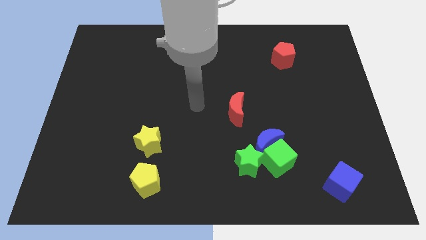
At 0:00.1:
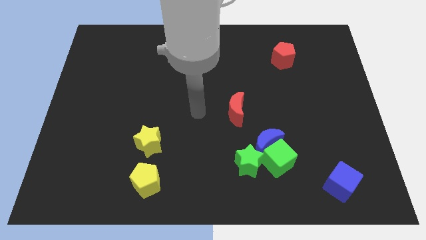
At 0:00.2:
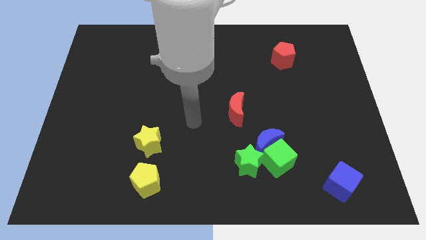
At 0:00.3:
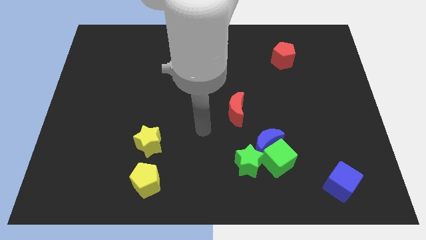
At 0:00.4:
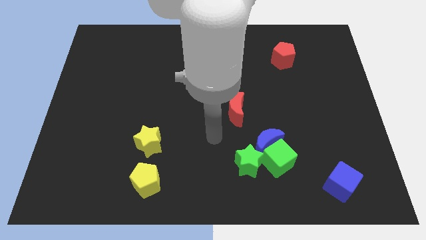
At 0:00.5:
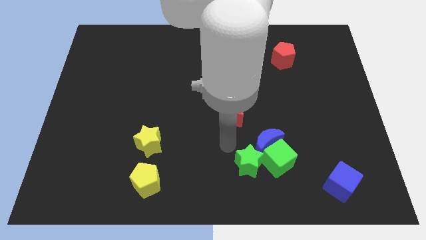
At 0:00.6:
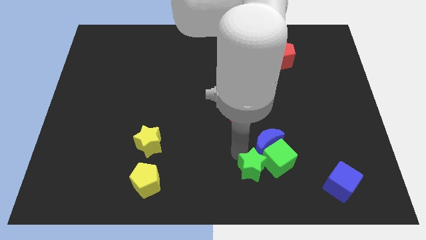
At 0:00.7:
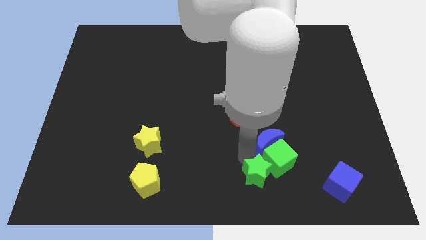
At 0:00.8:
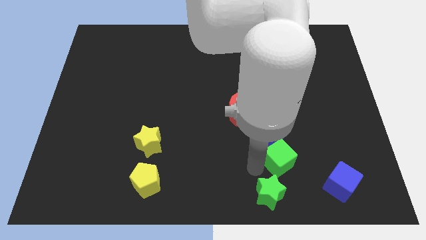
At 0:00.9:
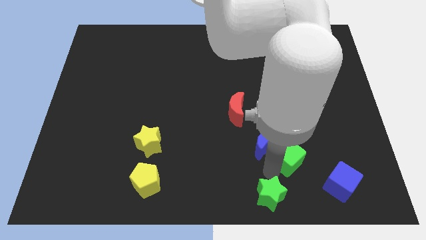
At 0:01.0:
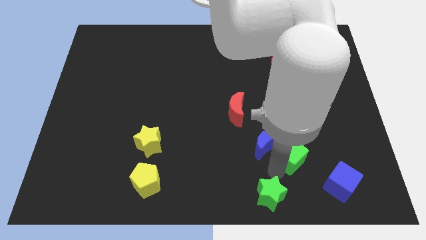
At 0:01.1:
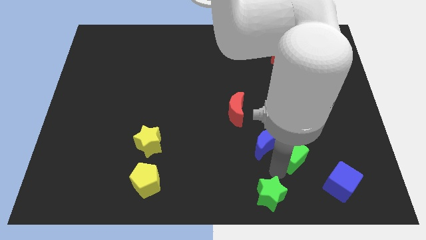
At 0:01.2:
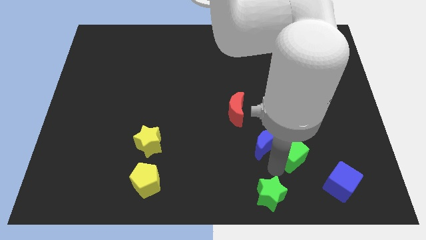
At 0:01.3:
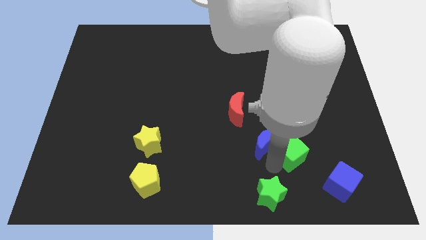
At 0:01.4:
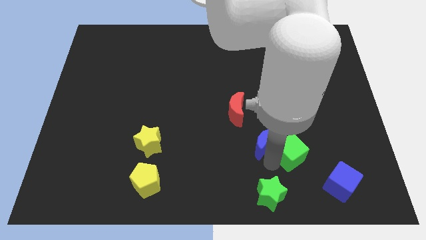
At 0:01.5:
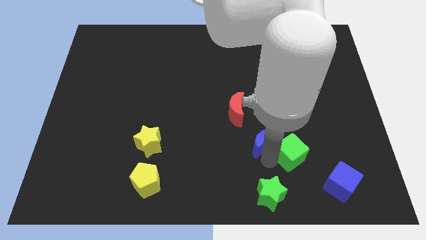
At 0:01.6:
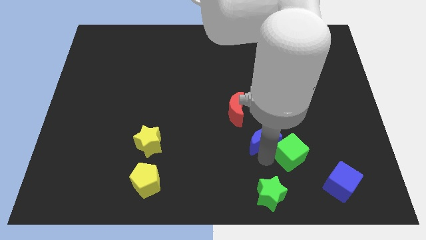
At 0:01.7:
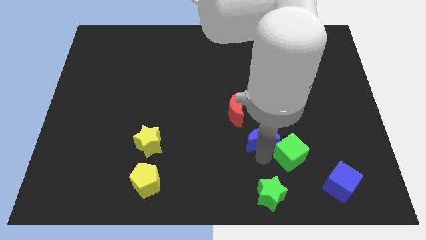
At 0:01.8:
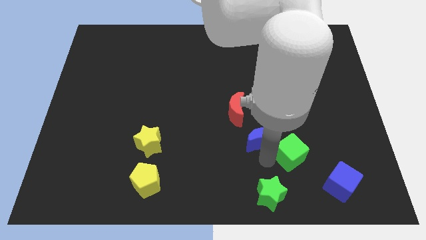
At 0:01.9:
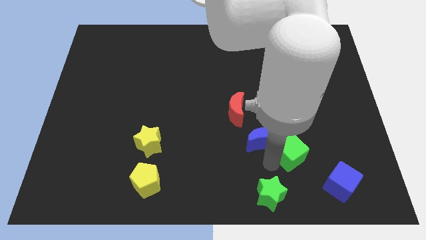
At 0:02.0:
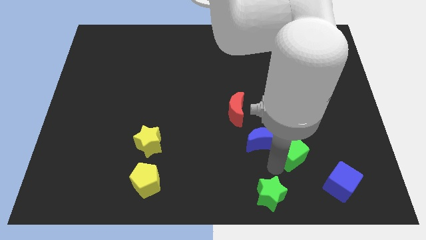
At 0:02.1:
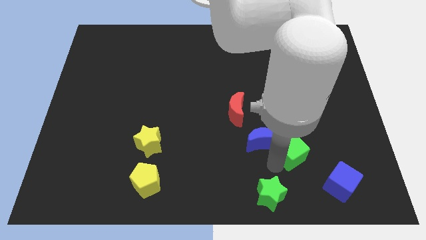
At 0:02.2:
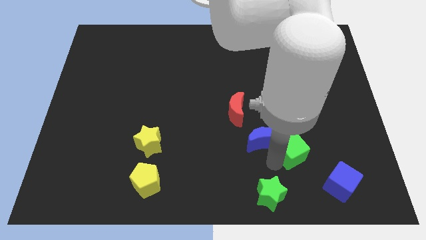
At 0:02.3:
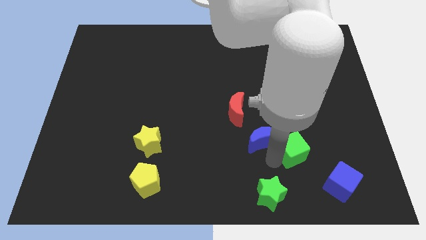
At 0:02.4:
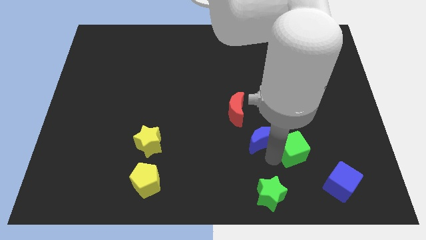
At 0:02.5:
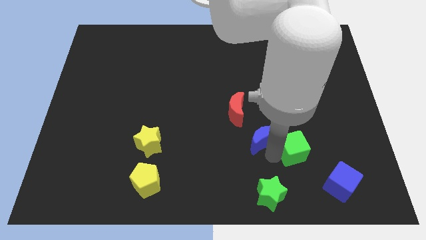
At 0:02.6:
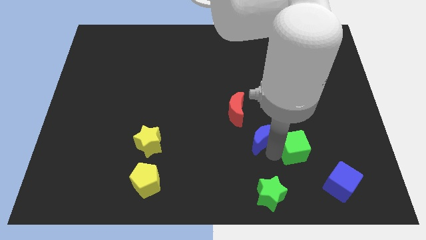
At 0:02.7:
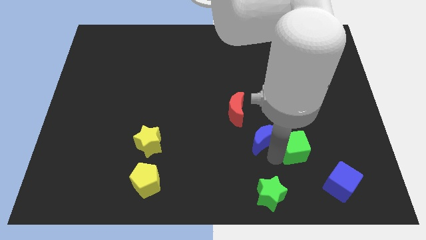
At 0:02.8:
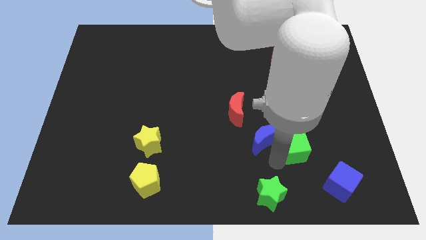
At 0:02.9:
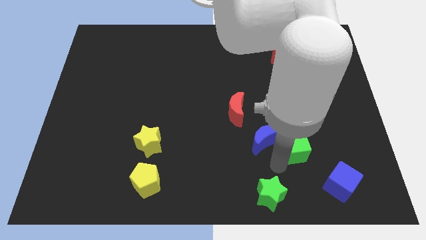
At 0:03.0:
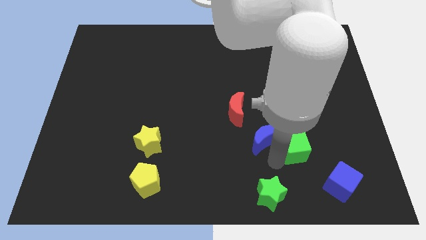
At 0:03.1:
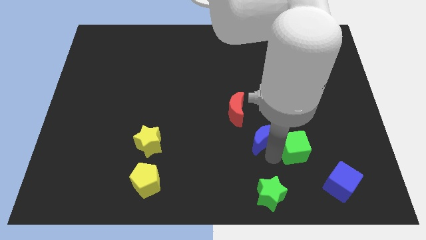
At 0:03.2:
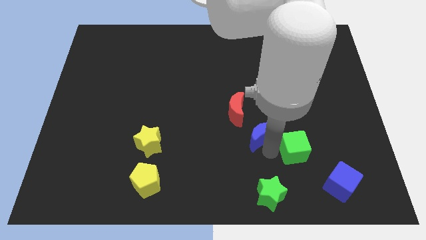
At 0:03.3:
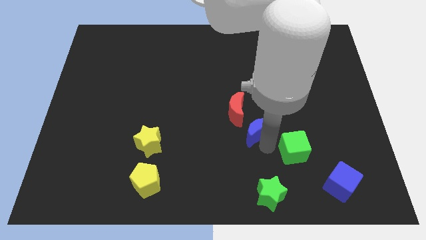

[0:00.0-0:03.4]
separate the blue moon from the green cube and green star

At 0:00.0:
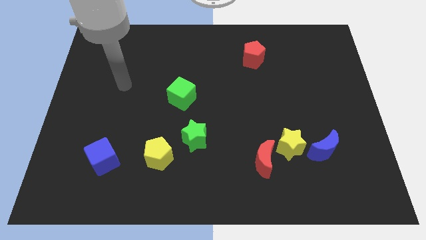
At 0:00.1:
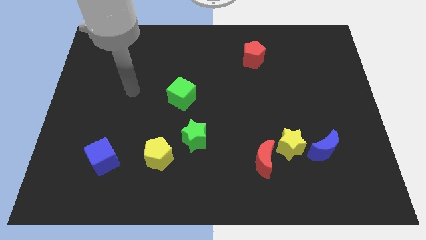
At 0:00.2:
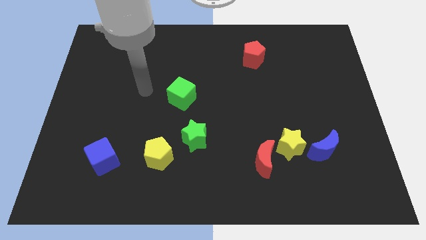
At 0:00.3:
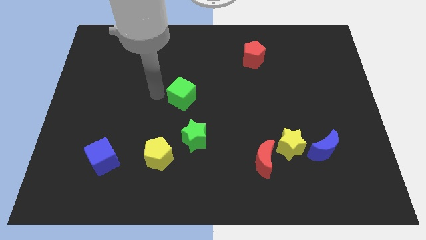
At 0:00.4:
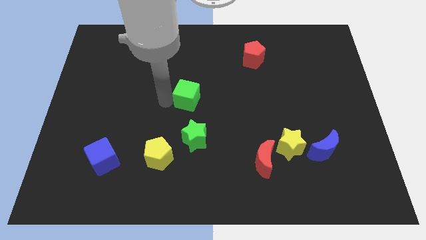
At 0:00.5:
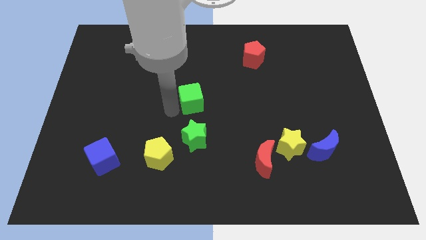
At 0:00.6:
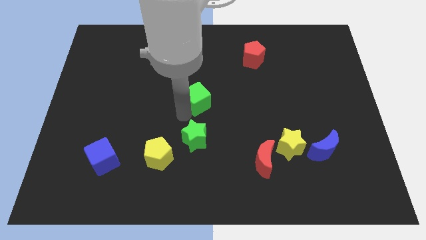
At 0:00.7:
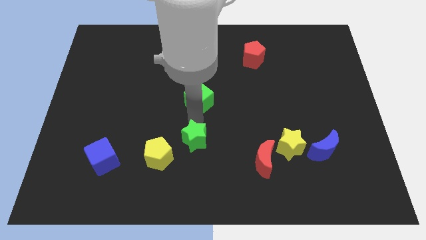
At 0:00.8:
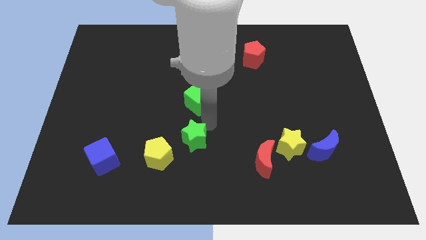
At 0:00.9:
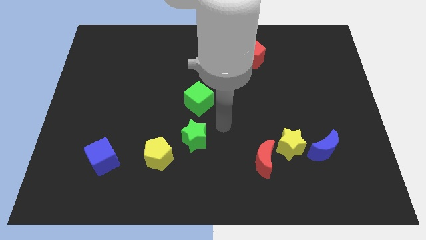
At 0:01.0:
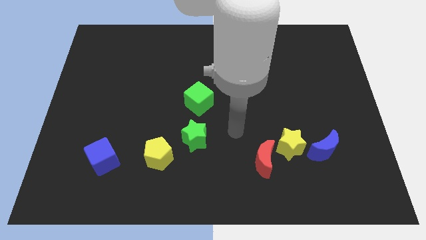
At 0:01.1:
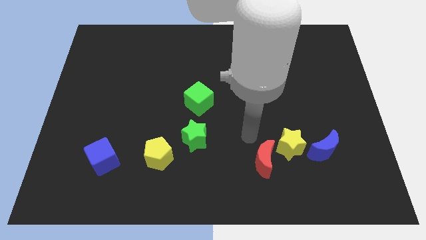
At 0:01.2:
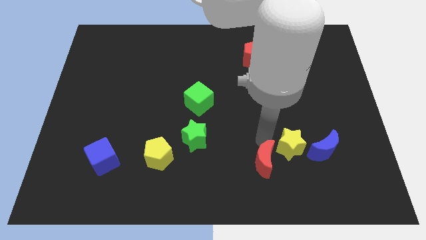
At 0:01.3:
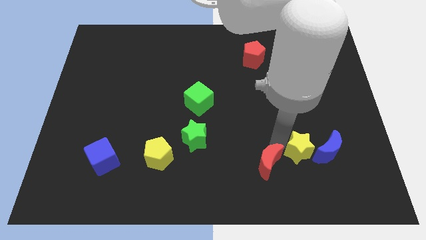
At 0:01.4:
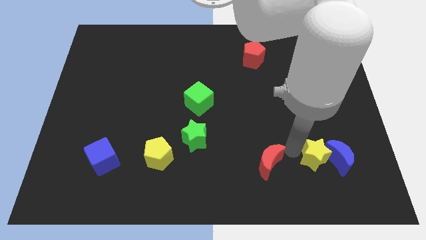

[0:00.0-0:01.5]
move the red moon away from the yellow star

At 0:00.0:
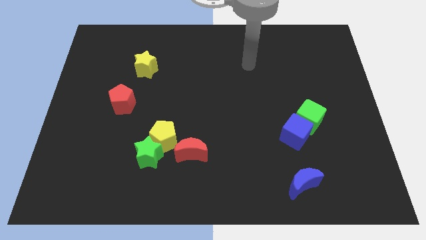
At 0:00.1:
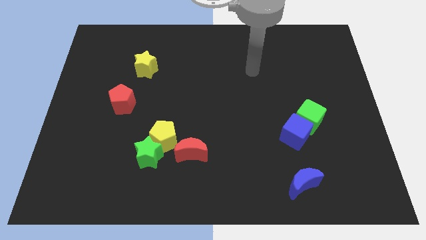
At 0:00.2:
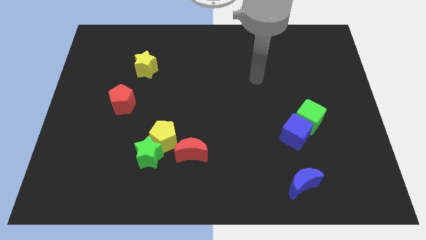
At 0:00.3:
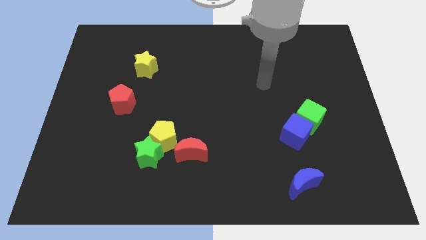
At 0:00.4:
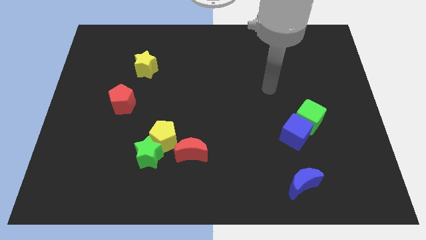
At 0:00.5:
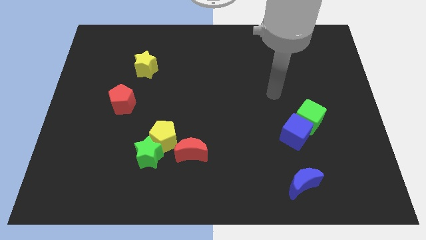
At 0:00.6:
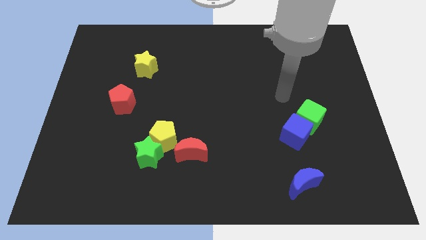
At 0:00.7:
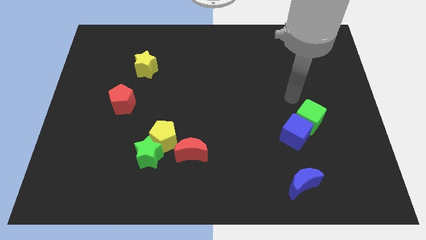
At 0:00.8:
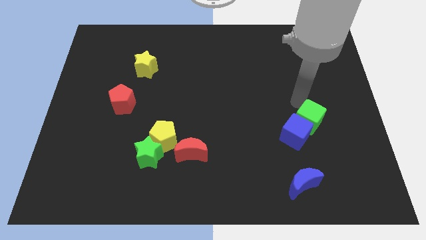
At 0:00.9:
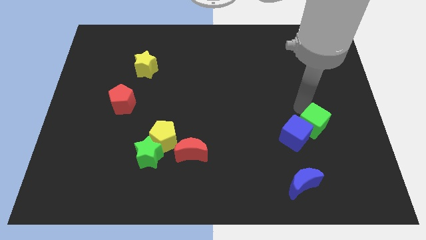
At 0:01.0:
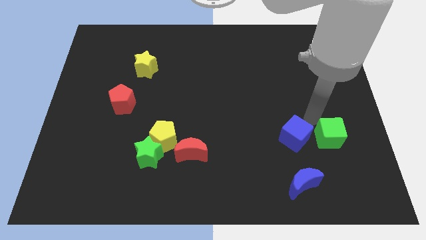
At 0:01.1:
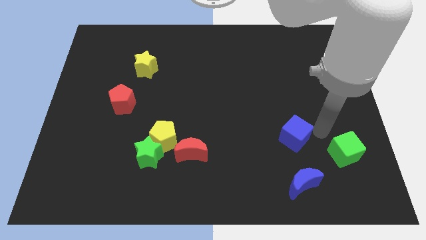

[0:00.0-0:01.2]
pull the blue cube apart from the green cube

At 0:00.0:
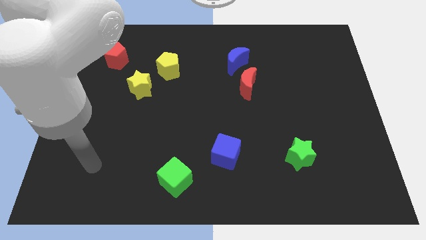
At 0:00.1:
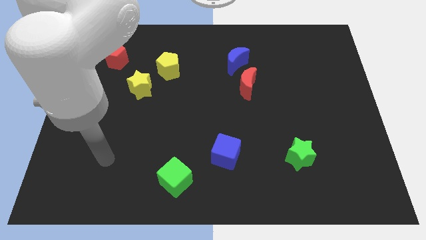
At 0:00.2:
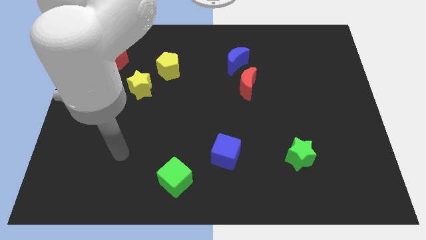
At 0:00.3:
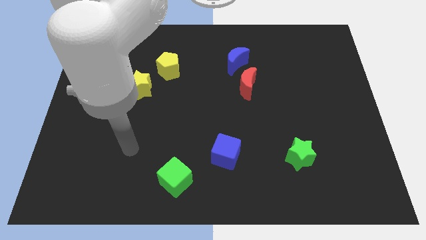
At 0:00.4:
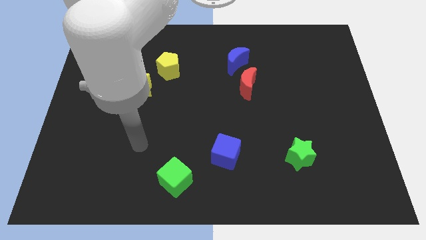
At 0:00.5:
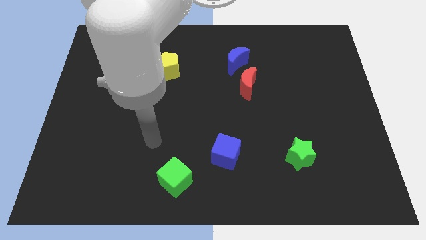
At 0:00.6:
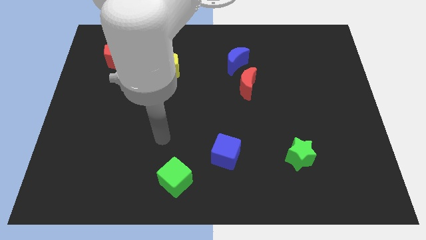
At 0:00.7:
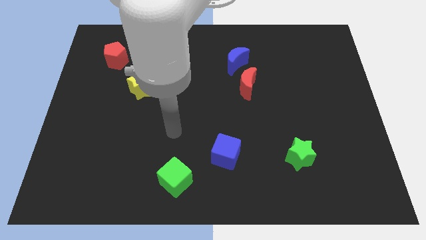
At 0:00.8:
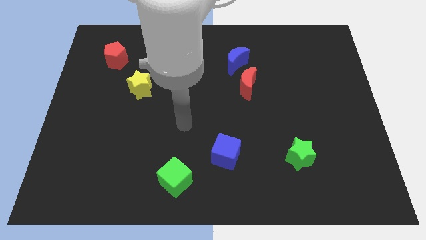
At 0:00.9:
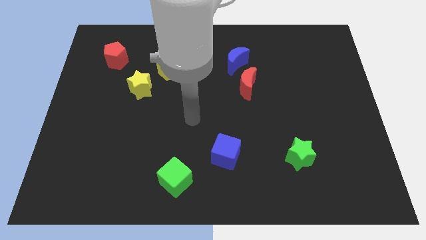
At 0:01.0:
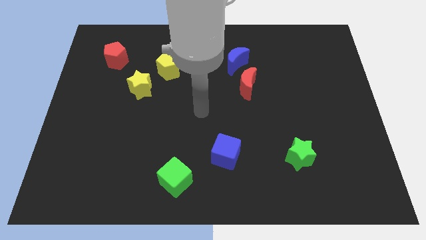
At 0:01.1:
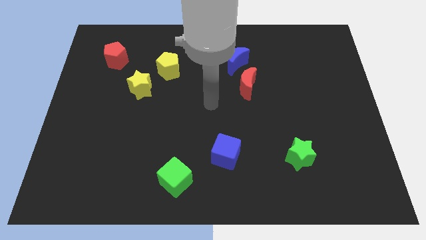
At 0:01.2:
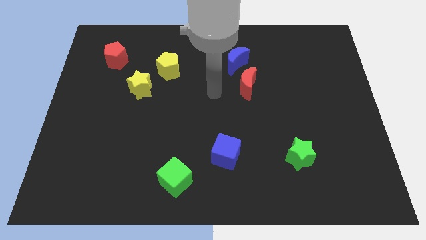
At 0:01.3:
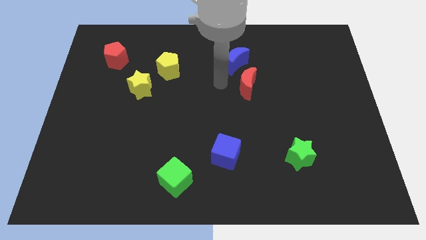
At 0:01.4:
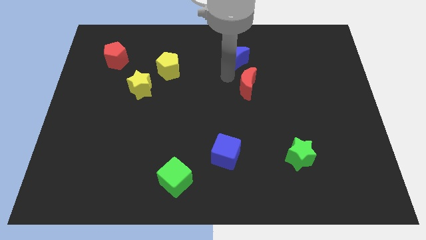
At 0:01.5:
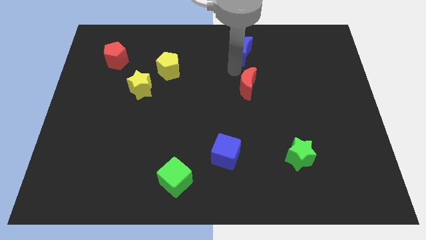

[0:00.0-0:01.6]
separate the red moon from the blue moon

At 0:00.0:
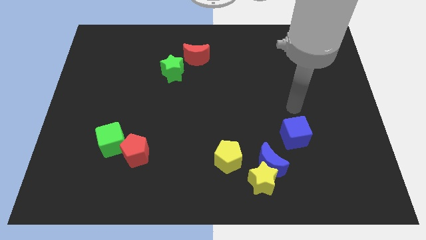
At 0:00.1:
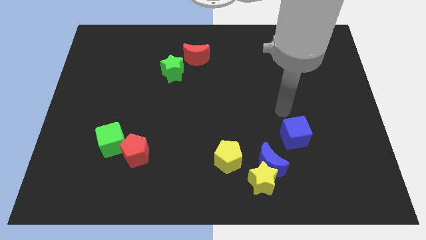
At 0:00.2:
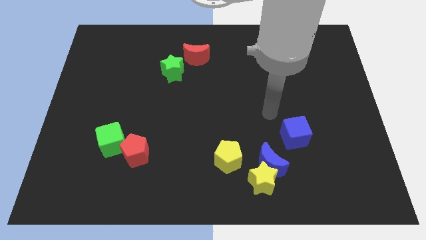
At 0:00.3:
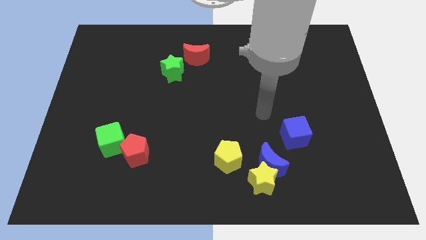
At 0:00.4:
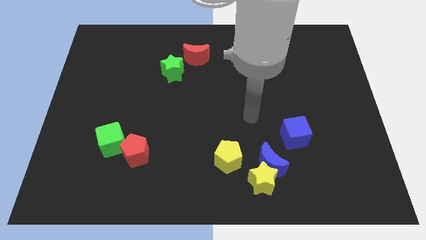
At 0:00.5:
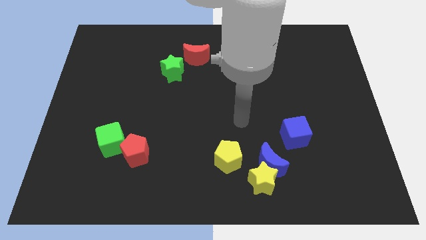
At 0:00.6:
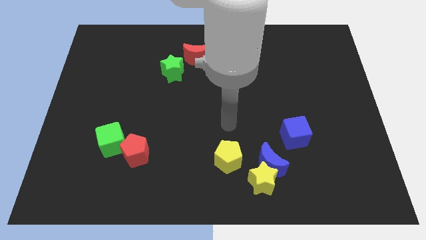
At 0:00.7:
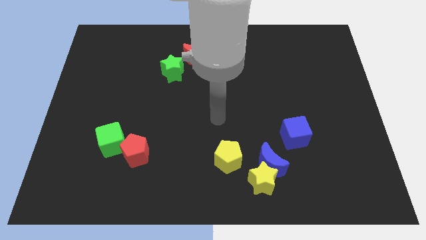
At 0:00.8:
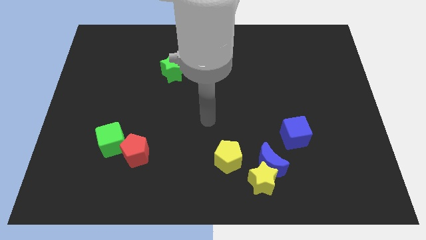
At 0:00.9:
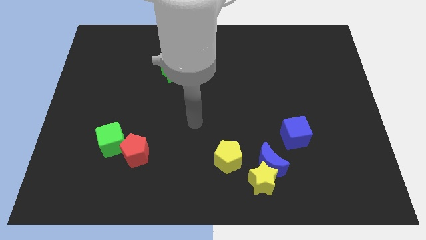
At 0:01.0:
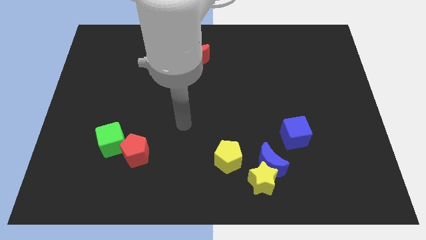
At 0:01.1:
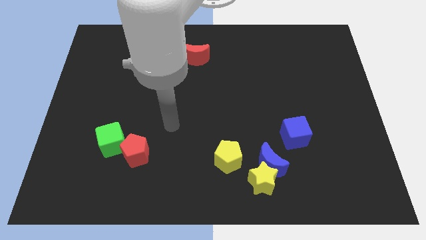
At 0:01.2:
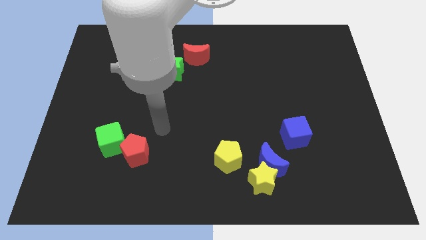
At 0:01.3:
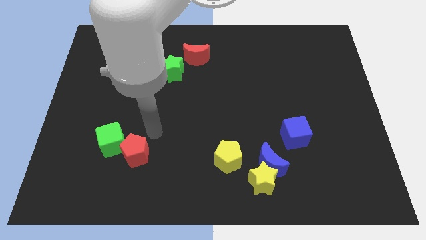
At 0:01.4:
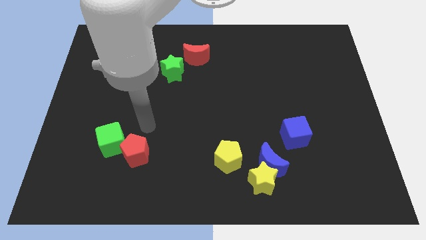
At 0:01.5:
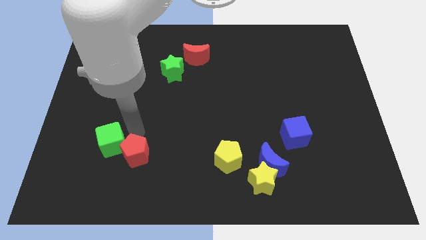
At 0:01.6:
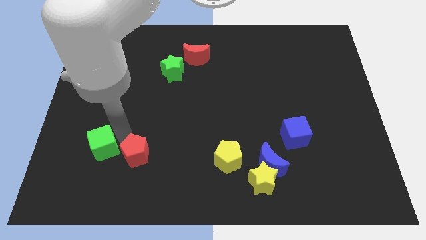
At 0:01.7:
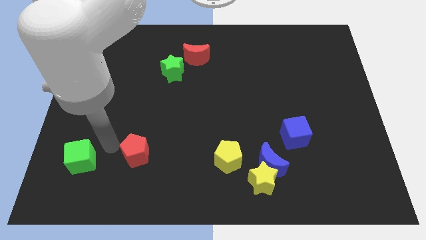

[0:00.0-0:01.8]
pull the red pentagon apart from the green cube
